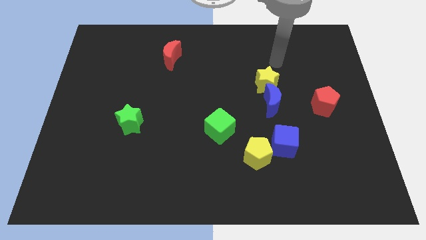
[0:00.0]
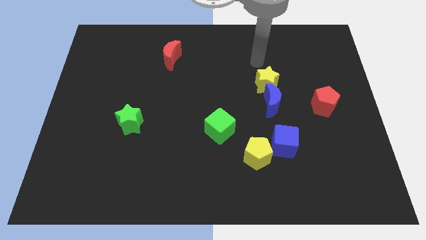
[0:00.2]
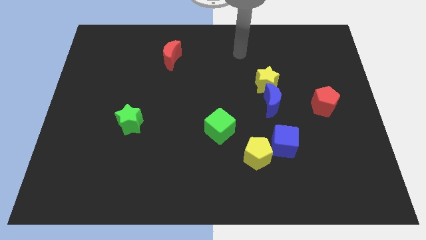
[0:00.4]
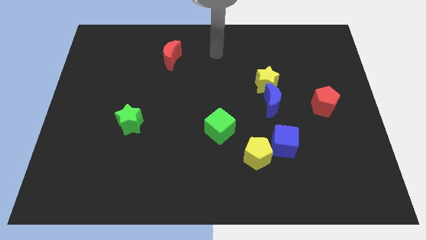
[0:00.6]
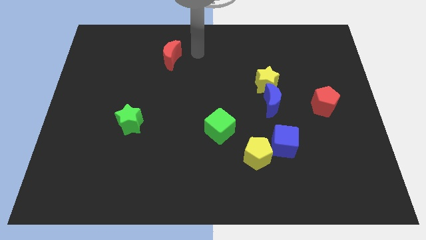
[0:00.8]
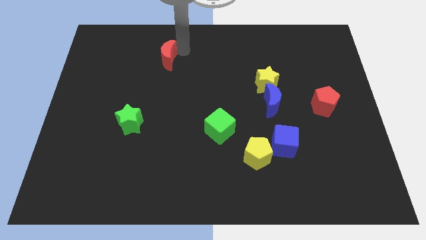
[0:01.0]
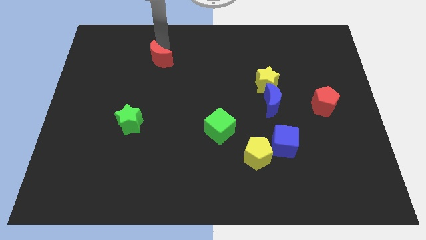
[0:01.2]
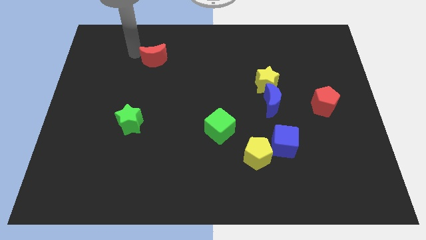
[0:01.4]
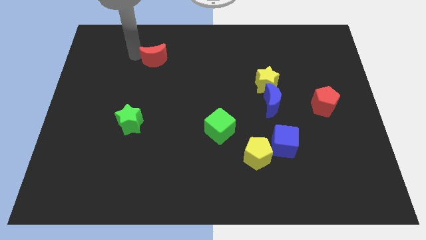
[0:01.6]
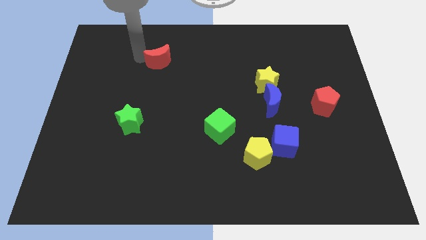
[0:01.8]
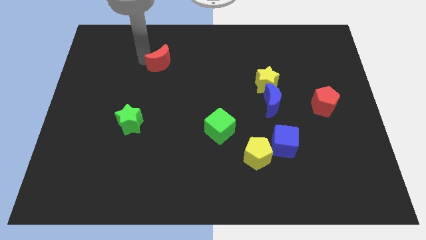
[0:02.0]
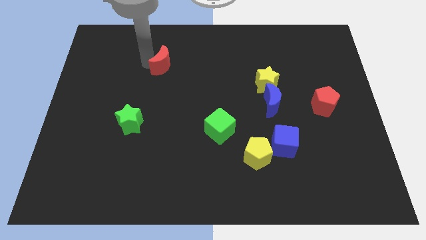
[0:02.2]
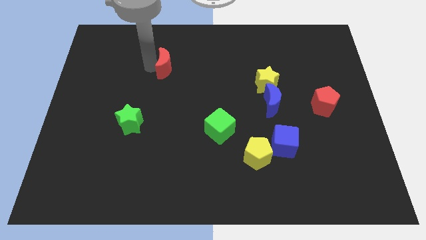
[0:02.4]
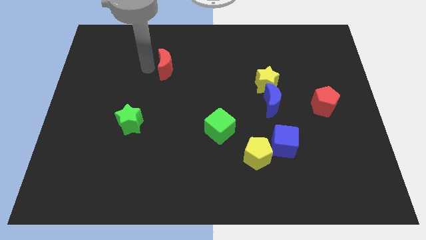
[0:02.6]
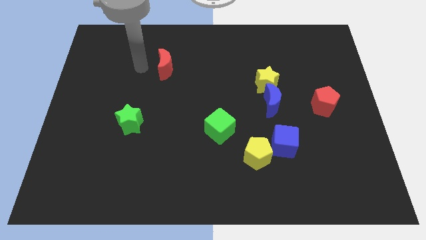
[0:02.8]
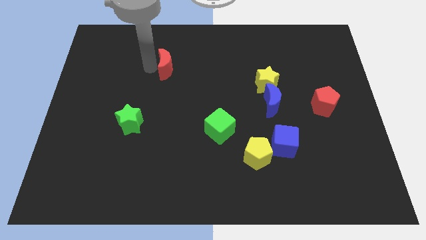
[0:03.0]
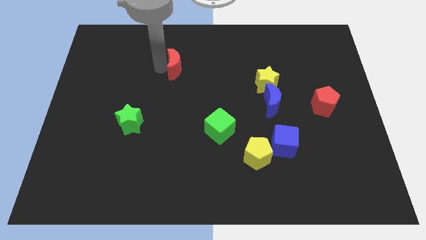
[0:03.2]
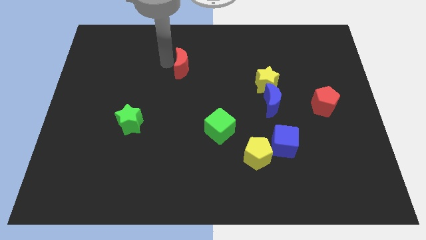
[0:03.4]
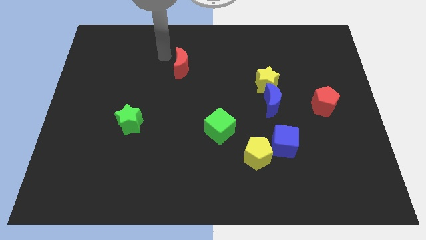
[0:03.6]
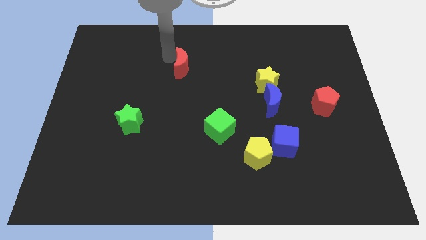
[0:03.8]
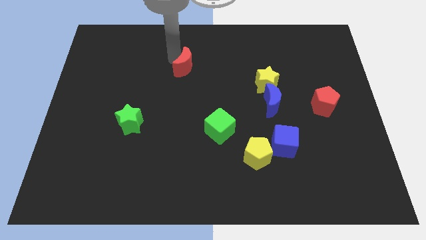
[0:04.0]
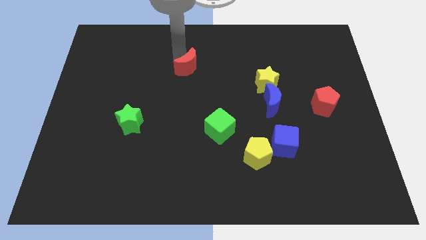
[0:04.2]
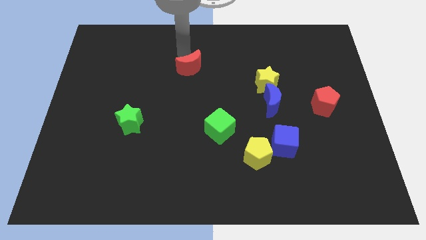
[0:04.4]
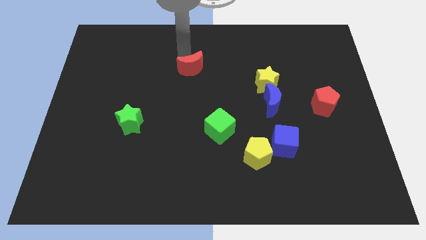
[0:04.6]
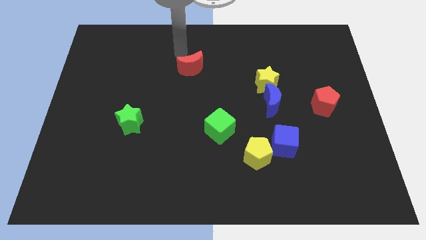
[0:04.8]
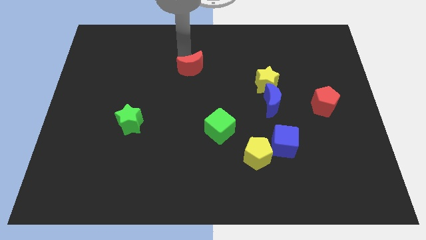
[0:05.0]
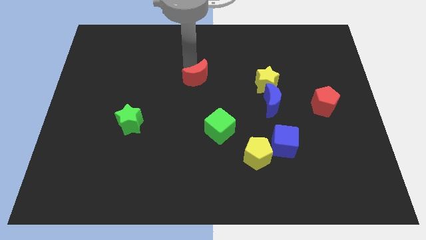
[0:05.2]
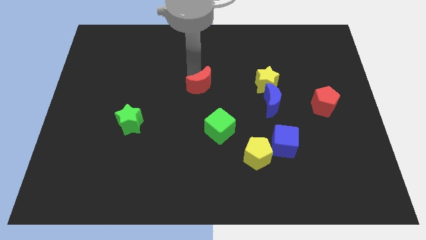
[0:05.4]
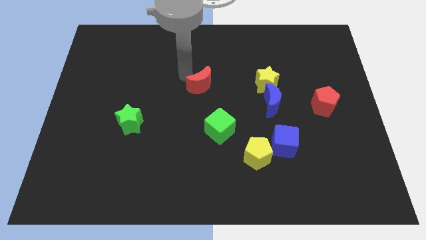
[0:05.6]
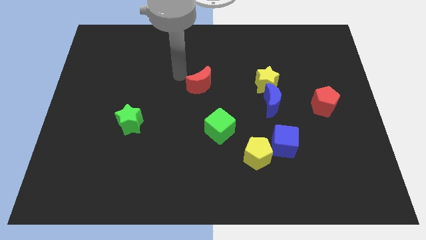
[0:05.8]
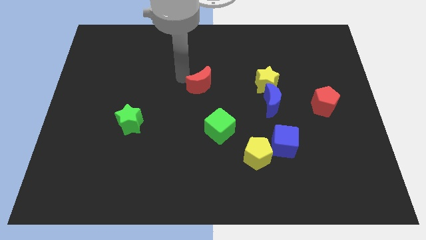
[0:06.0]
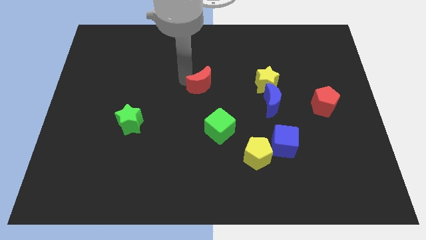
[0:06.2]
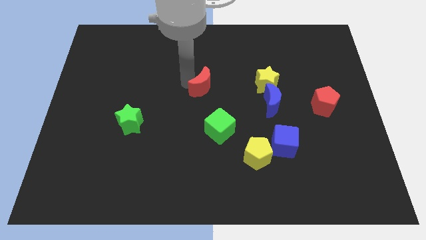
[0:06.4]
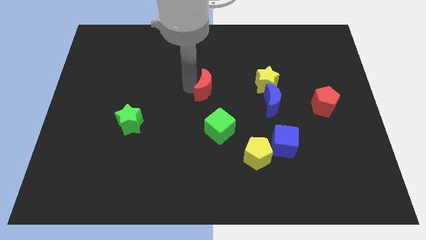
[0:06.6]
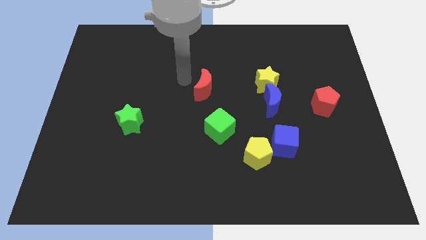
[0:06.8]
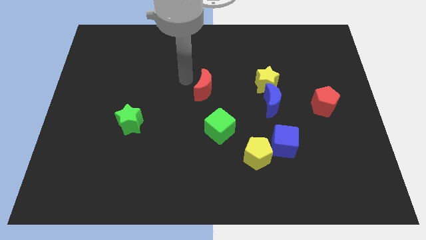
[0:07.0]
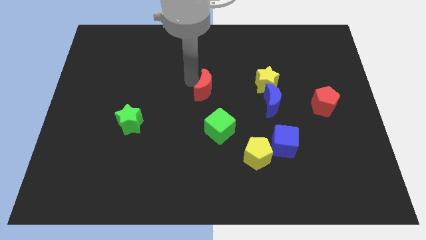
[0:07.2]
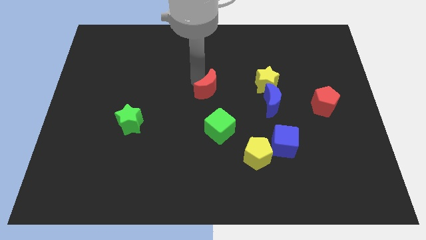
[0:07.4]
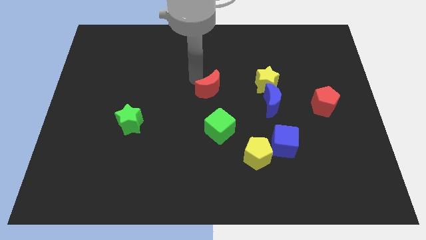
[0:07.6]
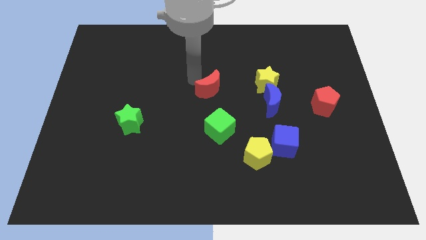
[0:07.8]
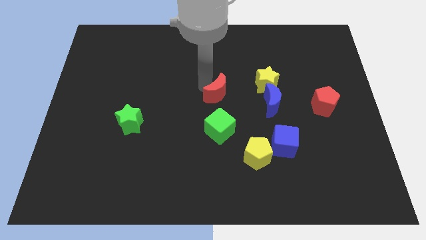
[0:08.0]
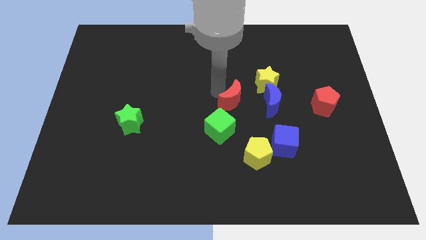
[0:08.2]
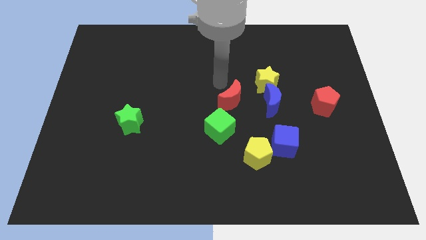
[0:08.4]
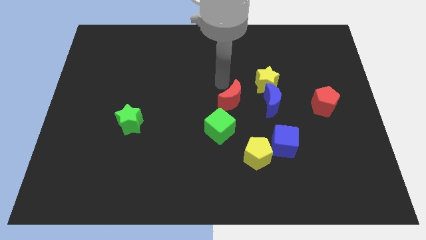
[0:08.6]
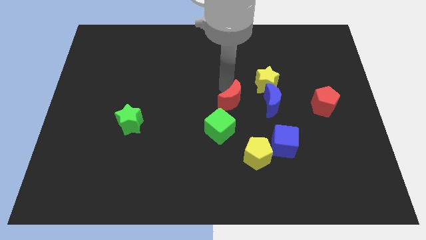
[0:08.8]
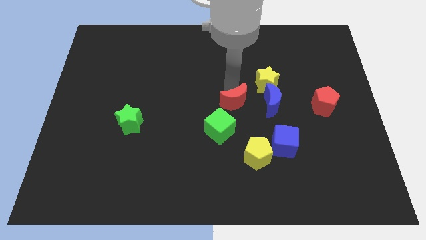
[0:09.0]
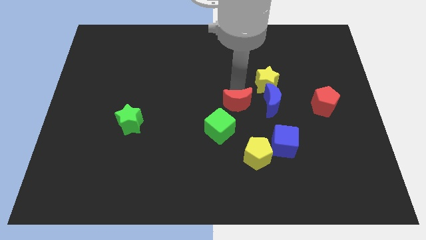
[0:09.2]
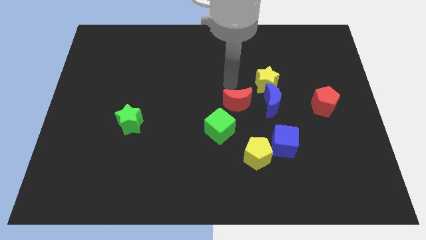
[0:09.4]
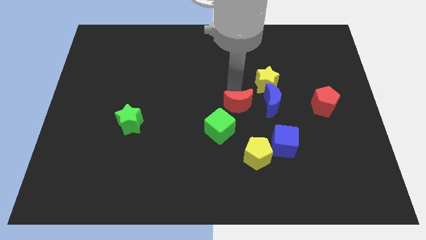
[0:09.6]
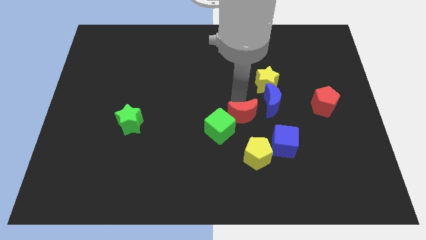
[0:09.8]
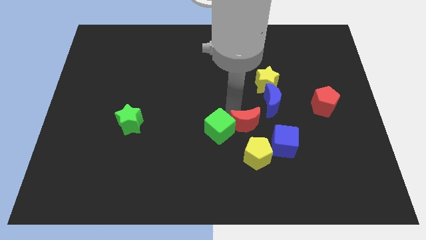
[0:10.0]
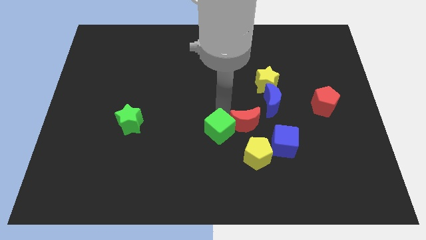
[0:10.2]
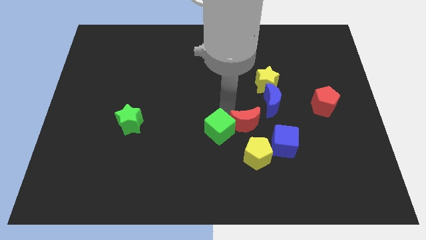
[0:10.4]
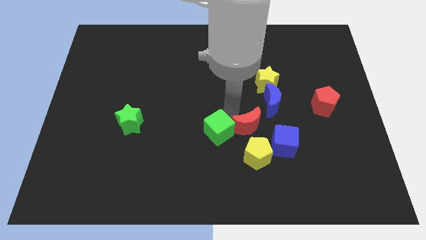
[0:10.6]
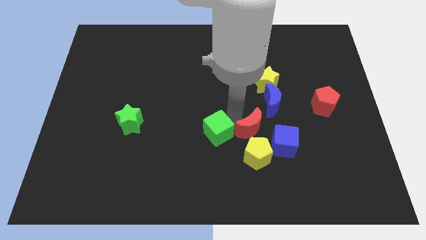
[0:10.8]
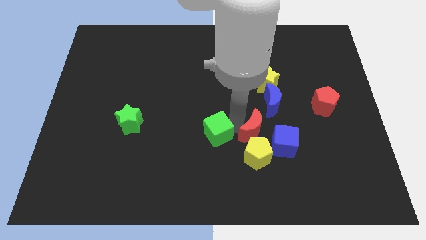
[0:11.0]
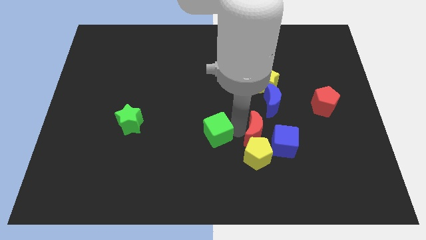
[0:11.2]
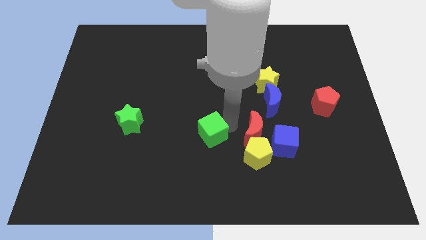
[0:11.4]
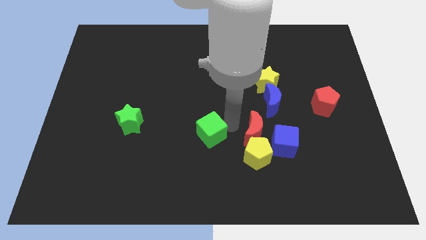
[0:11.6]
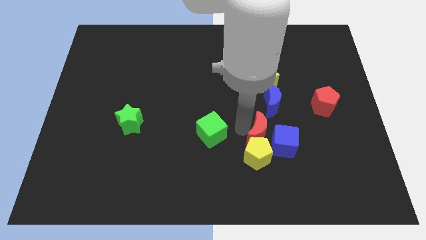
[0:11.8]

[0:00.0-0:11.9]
push the red moon next to the blue cube

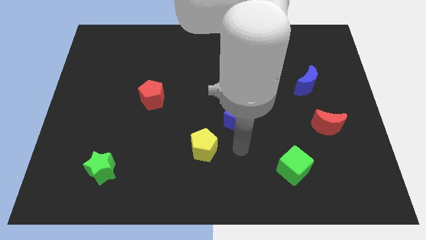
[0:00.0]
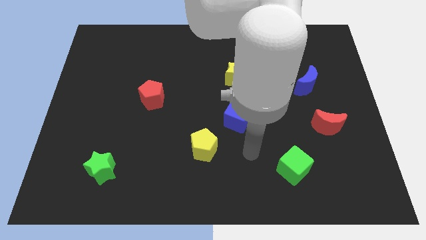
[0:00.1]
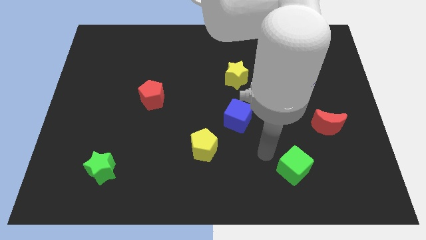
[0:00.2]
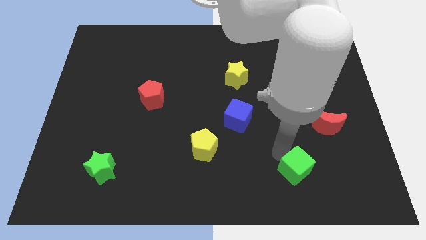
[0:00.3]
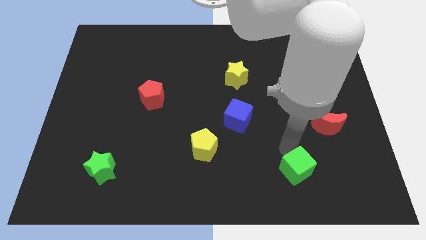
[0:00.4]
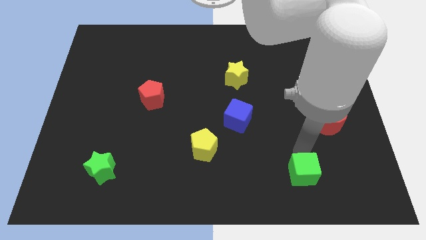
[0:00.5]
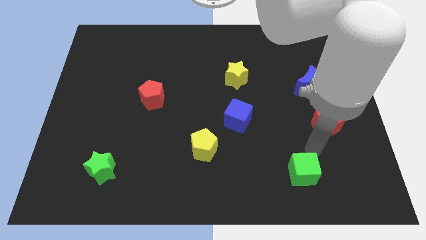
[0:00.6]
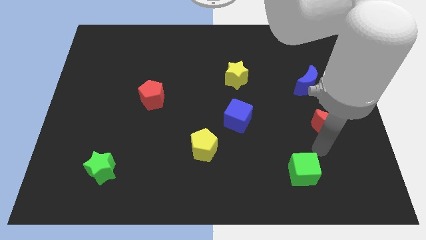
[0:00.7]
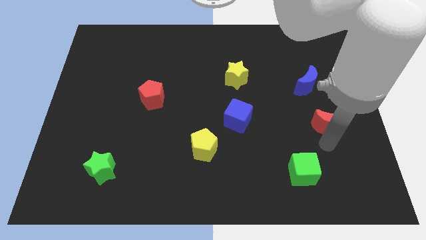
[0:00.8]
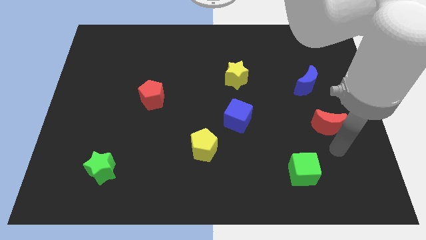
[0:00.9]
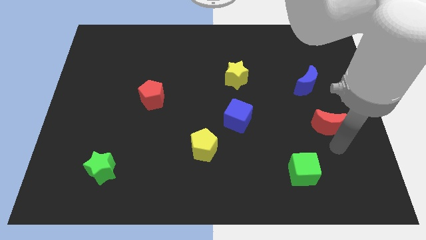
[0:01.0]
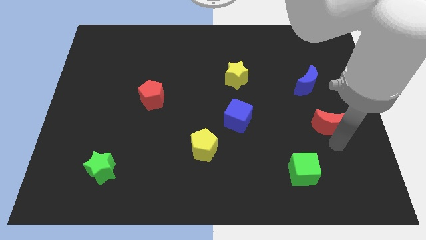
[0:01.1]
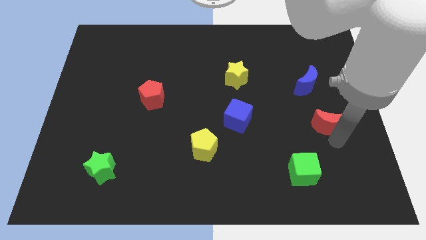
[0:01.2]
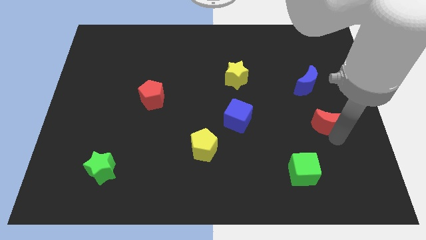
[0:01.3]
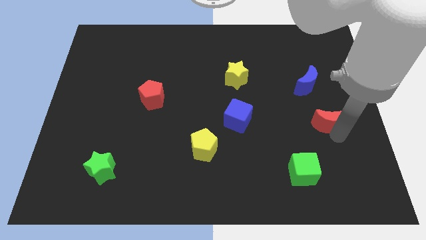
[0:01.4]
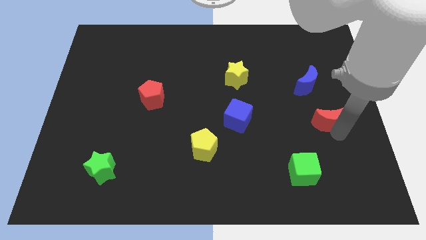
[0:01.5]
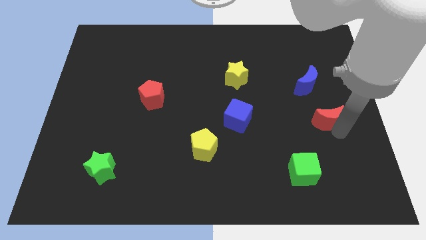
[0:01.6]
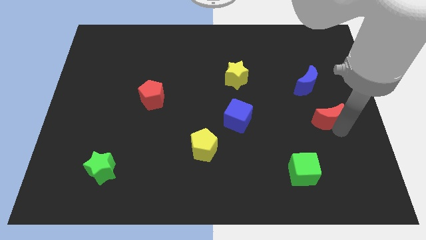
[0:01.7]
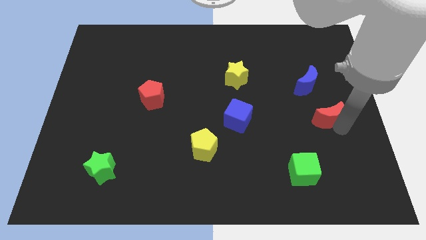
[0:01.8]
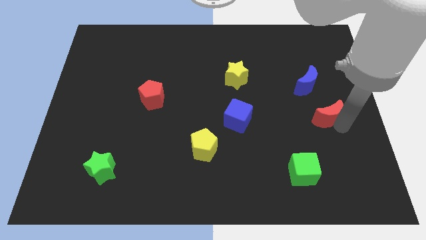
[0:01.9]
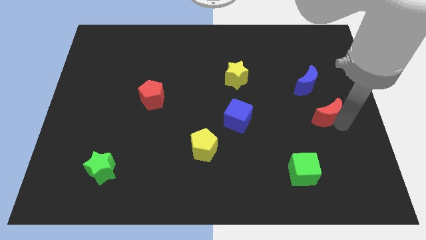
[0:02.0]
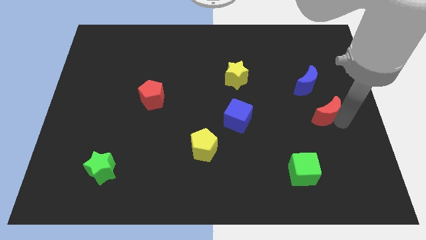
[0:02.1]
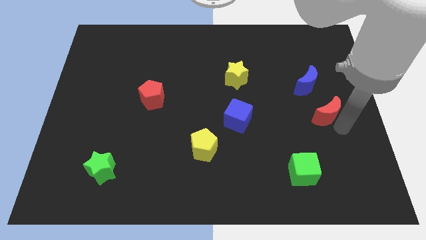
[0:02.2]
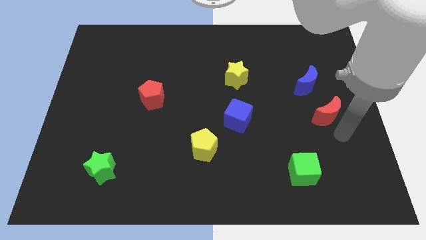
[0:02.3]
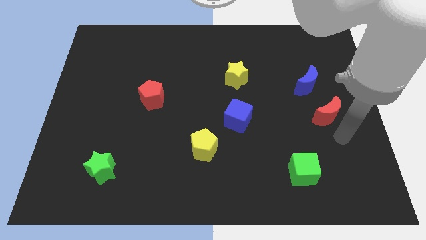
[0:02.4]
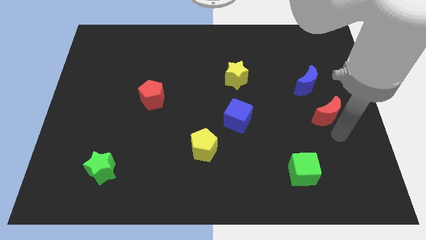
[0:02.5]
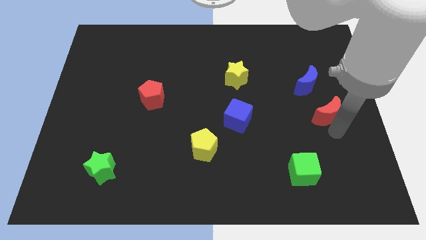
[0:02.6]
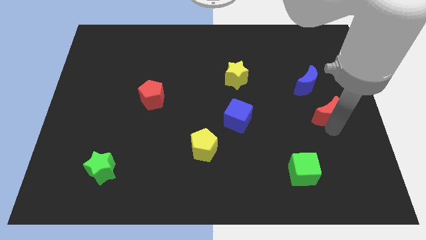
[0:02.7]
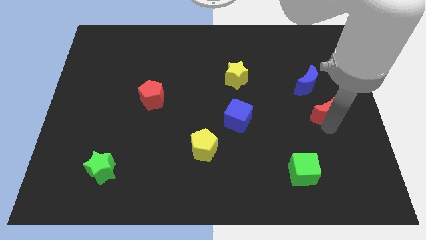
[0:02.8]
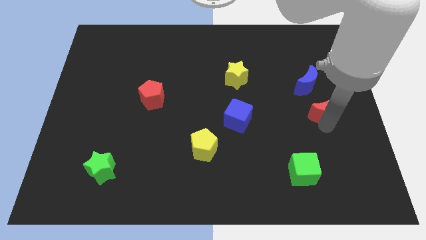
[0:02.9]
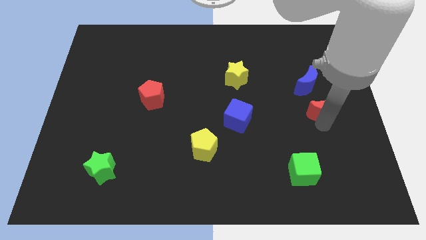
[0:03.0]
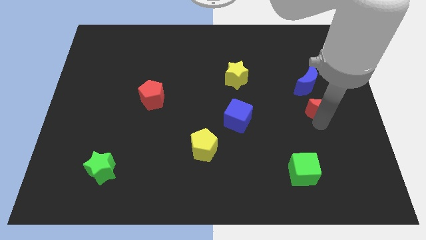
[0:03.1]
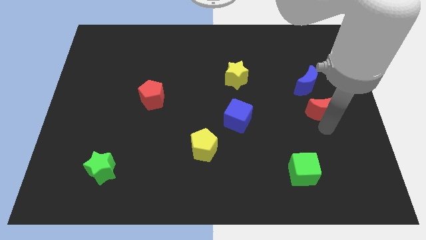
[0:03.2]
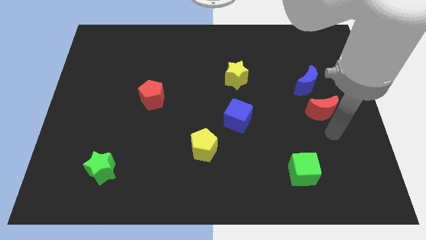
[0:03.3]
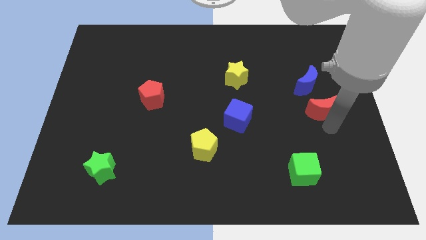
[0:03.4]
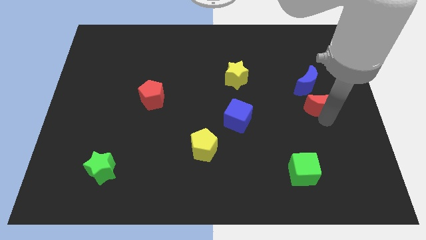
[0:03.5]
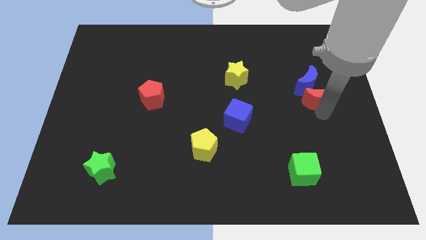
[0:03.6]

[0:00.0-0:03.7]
move the red moon close to the blue moon
